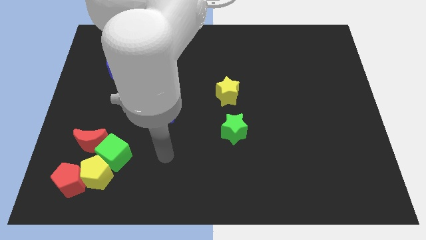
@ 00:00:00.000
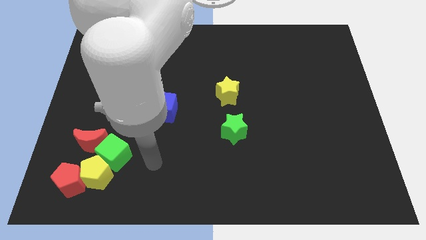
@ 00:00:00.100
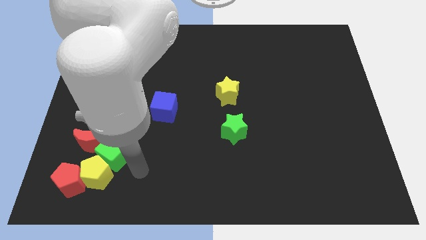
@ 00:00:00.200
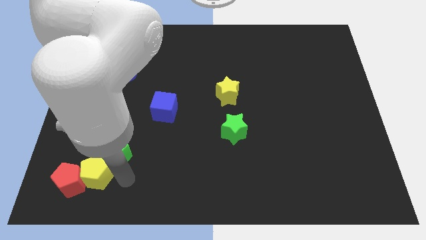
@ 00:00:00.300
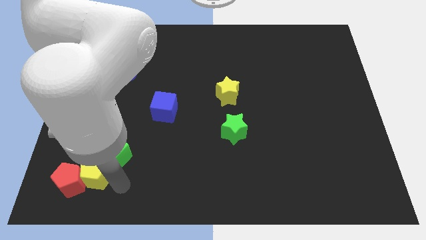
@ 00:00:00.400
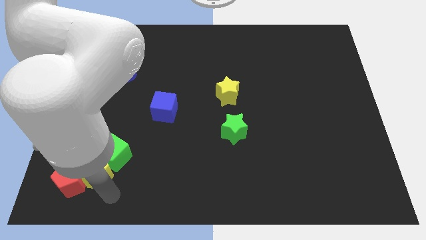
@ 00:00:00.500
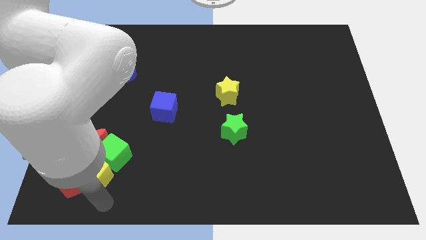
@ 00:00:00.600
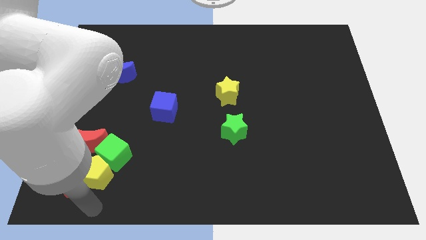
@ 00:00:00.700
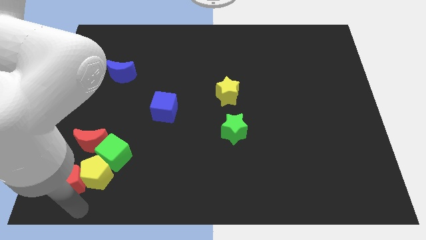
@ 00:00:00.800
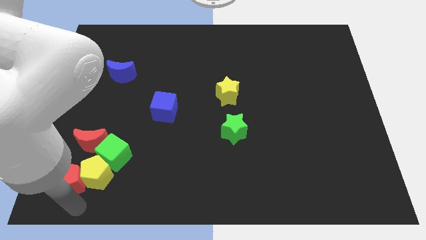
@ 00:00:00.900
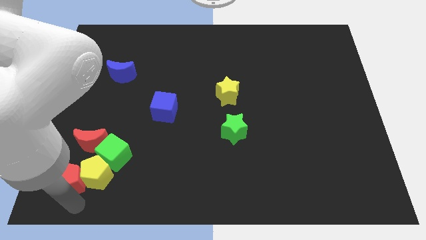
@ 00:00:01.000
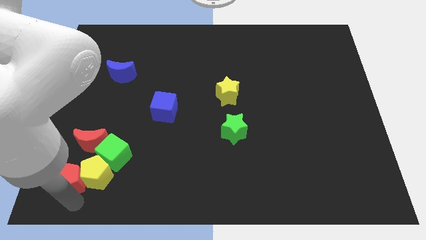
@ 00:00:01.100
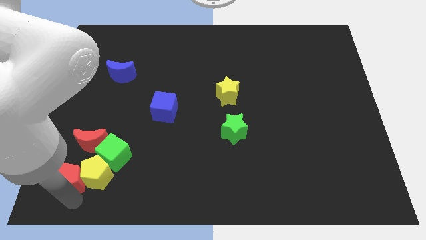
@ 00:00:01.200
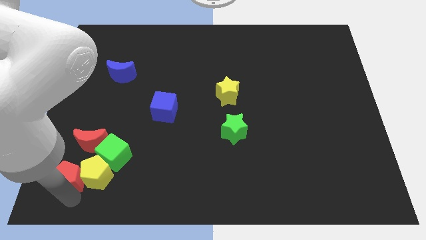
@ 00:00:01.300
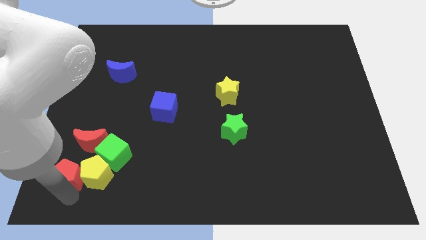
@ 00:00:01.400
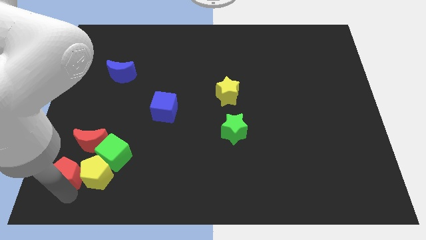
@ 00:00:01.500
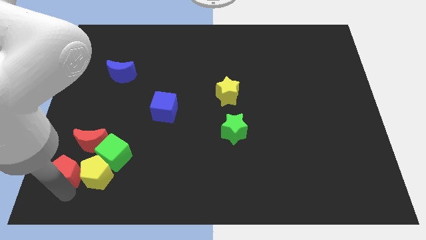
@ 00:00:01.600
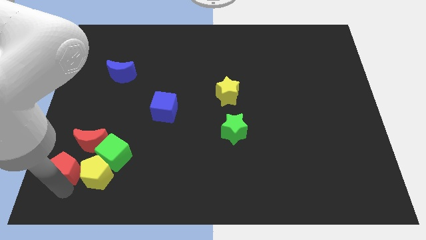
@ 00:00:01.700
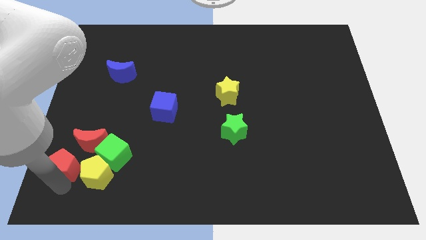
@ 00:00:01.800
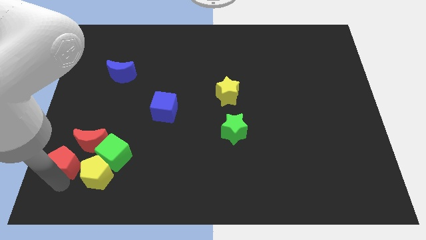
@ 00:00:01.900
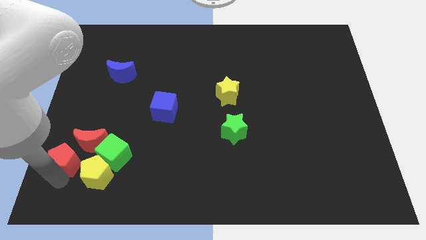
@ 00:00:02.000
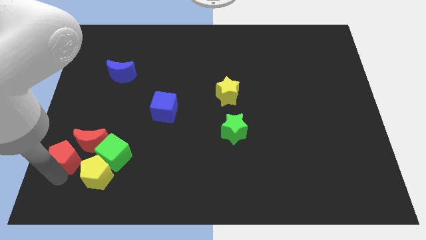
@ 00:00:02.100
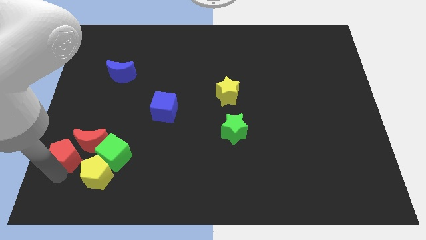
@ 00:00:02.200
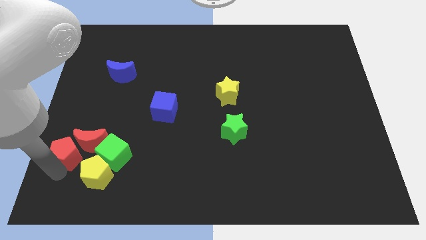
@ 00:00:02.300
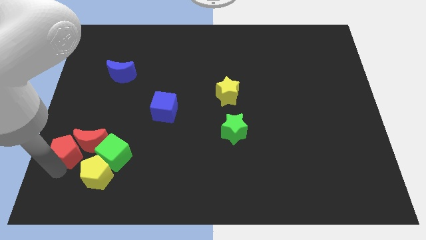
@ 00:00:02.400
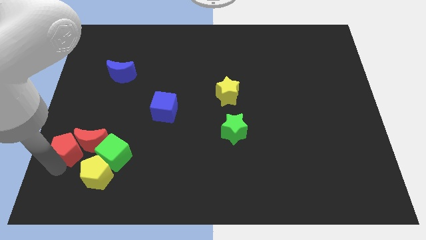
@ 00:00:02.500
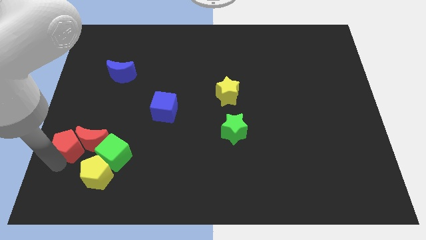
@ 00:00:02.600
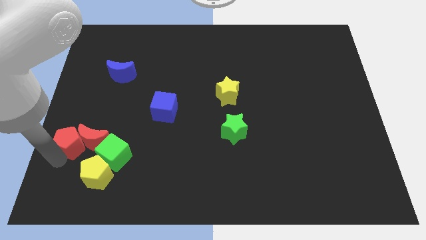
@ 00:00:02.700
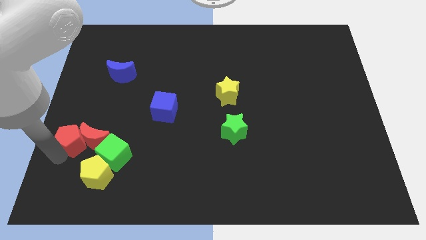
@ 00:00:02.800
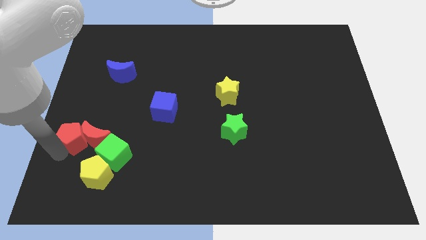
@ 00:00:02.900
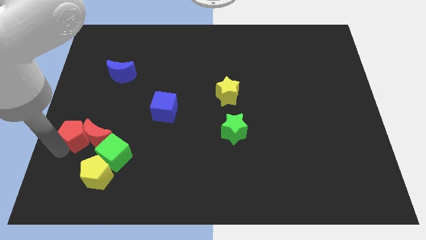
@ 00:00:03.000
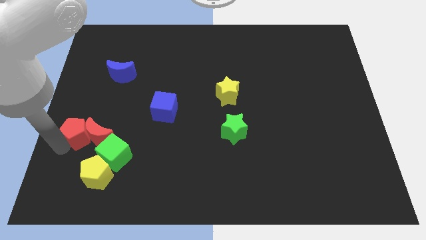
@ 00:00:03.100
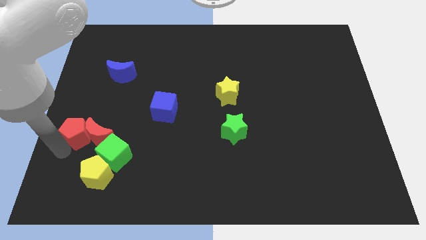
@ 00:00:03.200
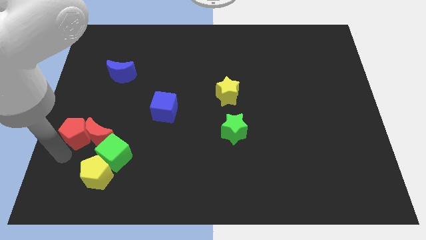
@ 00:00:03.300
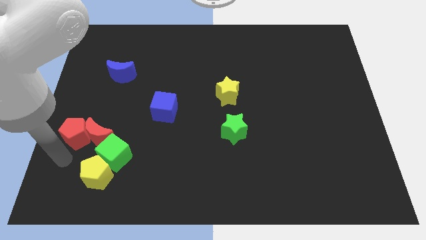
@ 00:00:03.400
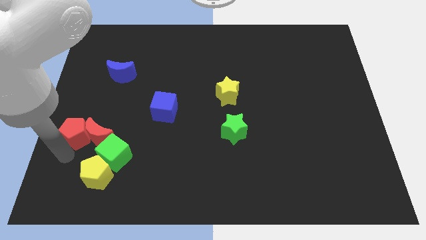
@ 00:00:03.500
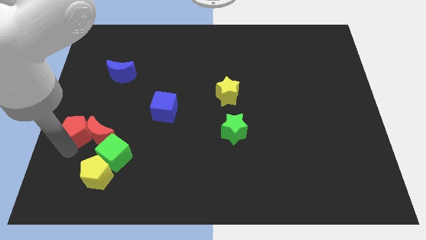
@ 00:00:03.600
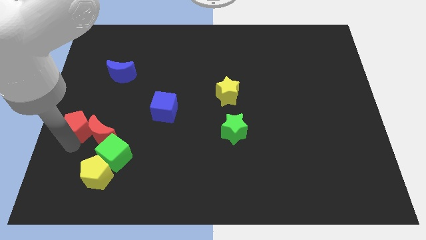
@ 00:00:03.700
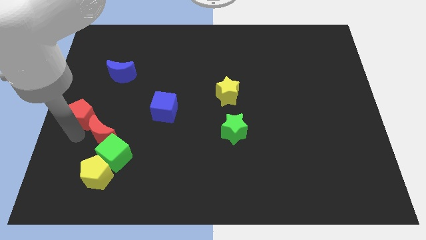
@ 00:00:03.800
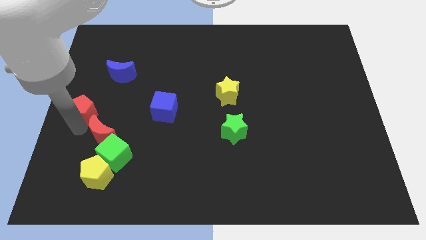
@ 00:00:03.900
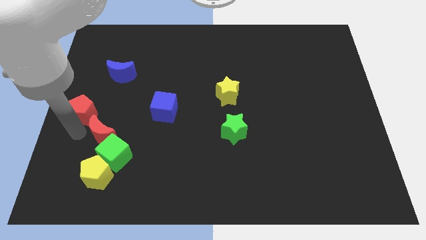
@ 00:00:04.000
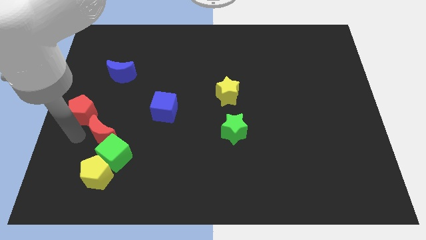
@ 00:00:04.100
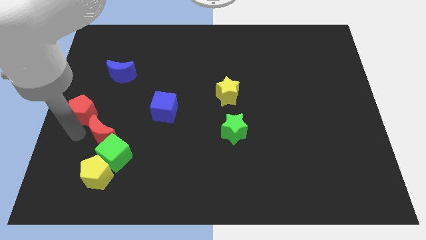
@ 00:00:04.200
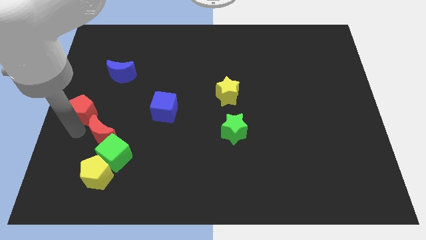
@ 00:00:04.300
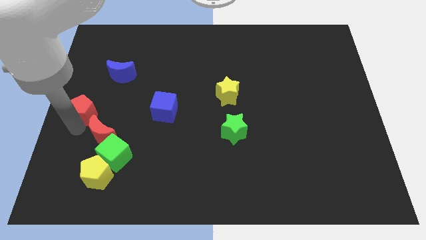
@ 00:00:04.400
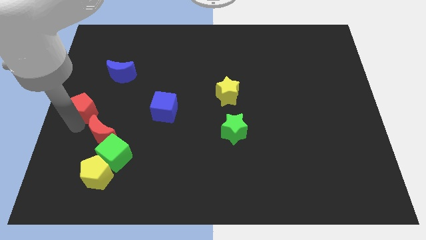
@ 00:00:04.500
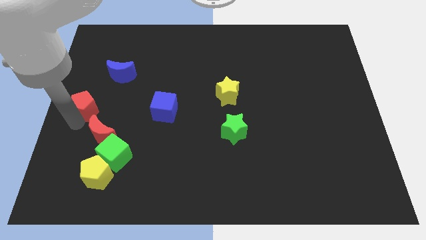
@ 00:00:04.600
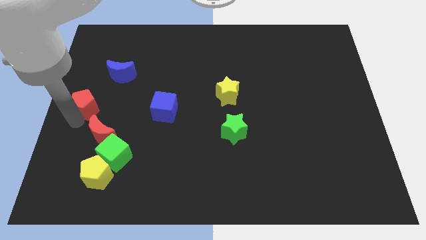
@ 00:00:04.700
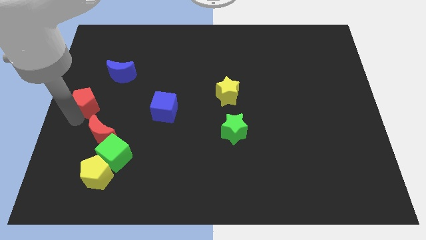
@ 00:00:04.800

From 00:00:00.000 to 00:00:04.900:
slide the red pentagon up

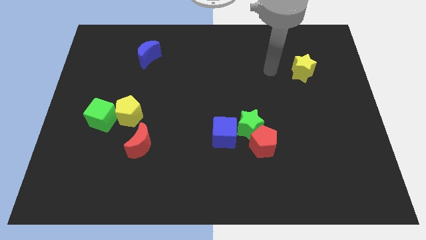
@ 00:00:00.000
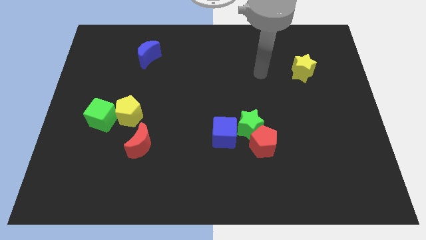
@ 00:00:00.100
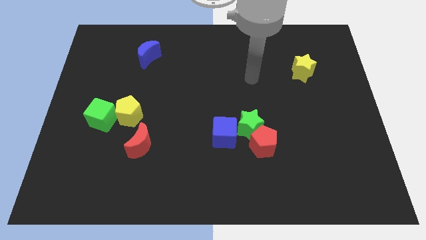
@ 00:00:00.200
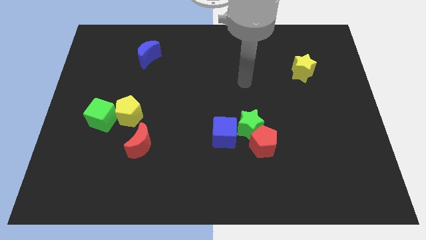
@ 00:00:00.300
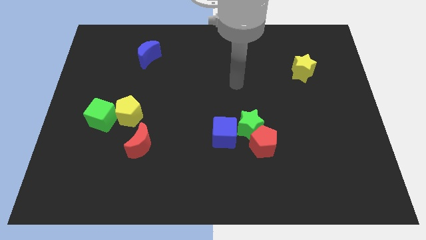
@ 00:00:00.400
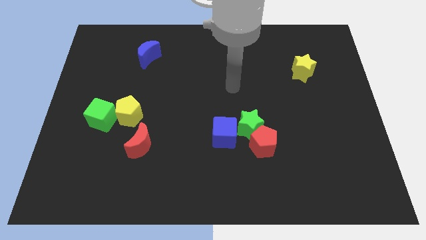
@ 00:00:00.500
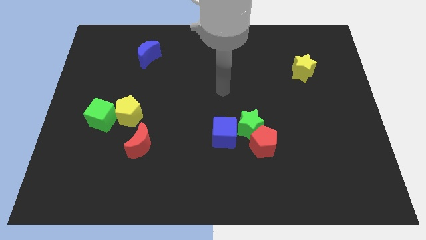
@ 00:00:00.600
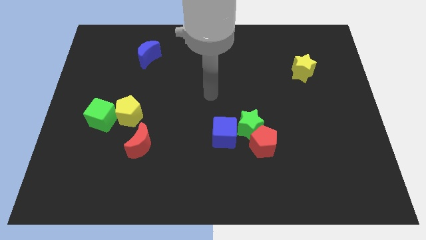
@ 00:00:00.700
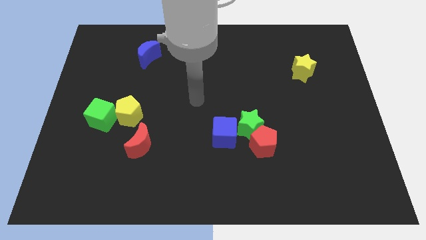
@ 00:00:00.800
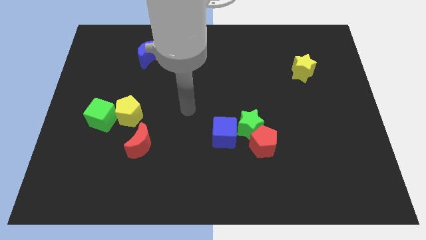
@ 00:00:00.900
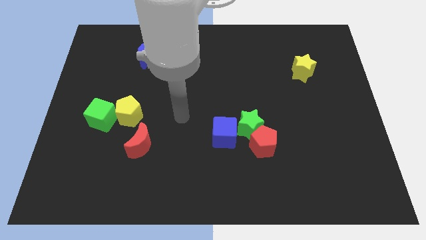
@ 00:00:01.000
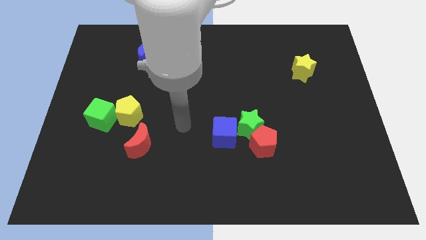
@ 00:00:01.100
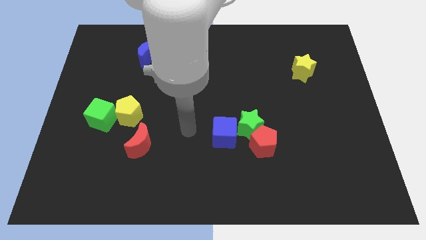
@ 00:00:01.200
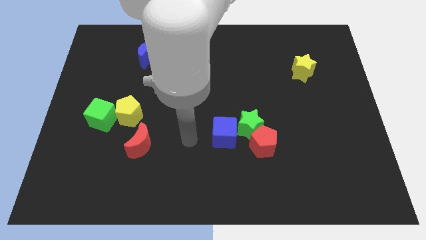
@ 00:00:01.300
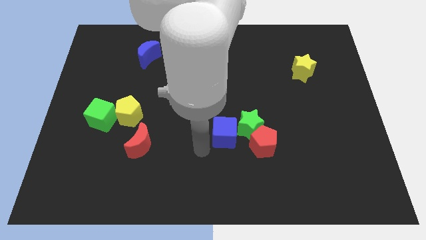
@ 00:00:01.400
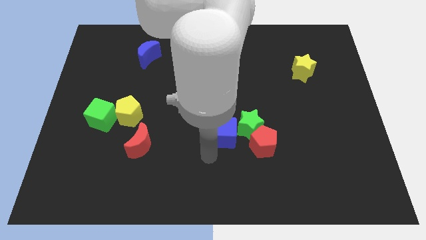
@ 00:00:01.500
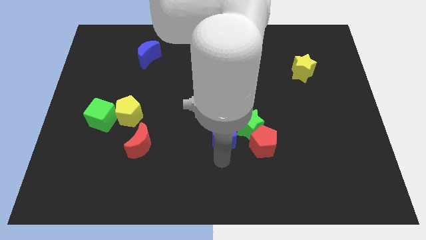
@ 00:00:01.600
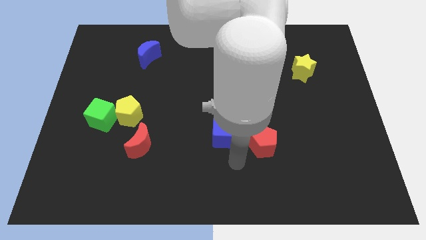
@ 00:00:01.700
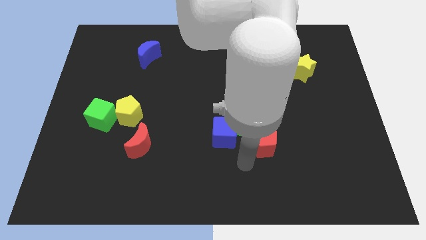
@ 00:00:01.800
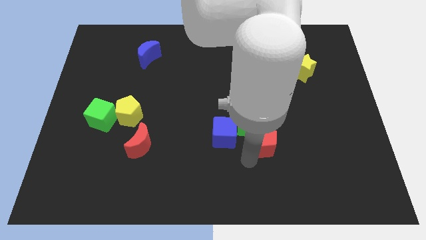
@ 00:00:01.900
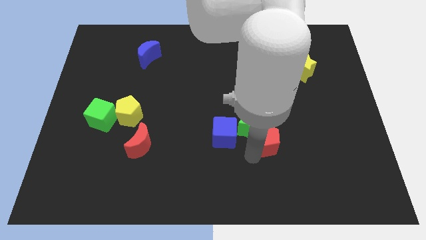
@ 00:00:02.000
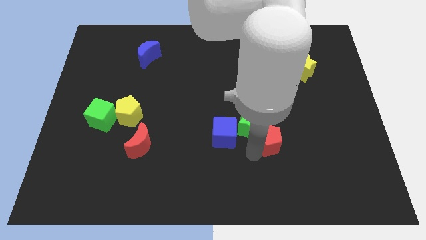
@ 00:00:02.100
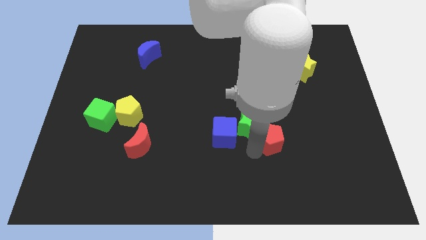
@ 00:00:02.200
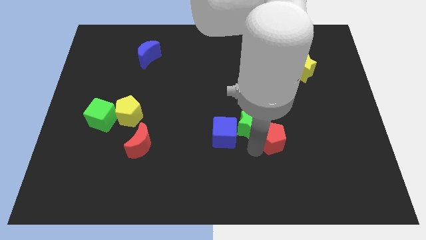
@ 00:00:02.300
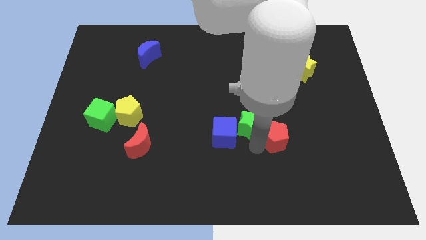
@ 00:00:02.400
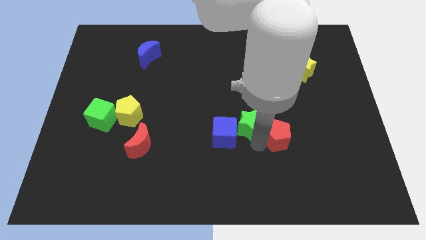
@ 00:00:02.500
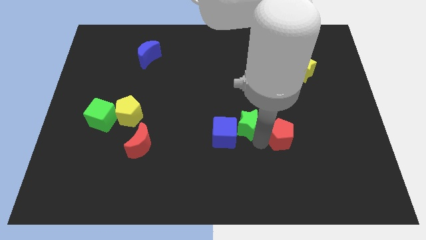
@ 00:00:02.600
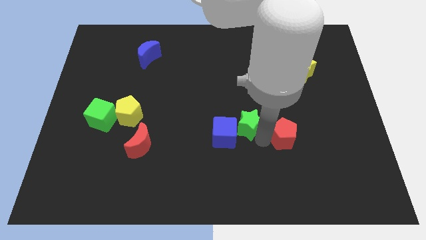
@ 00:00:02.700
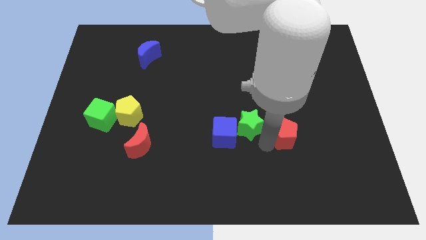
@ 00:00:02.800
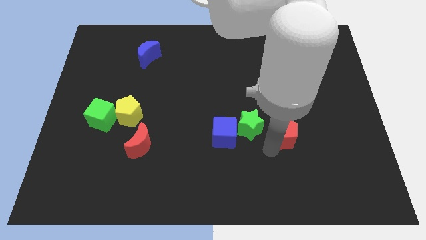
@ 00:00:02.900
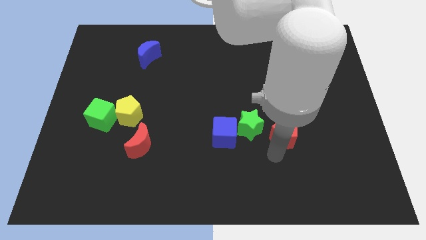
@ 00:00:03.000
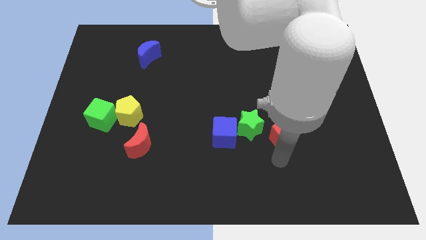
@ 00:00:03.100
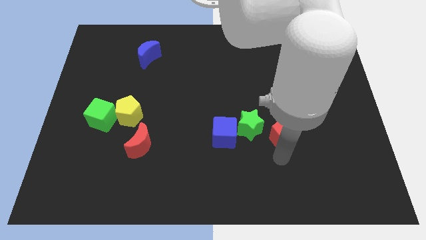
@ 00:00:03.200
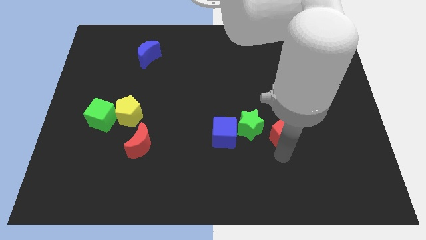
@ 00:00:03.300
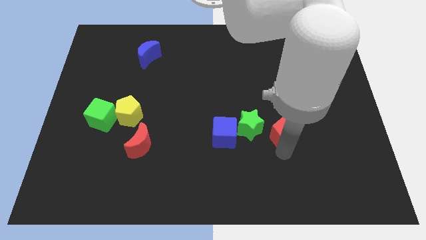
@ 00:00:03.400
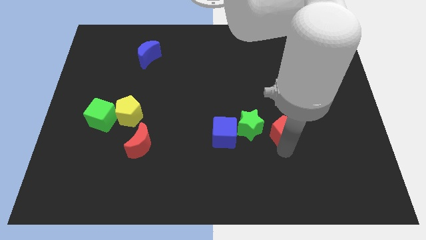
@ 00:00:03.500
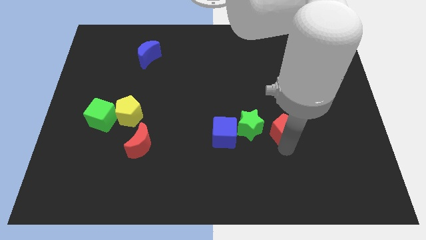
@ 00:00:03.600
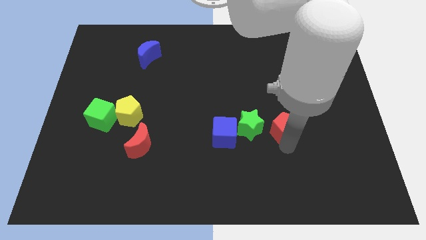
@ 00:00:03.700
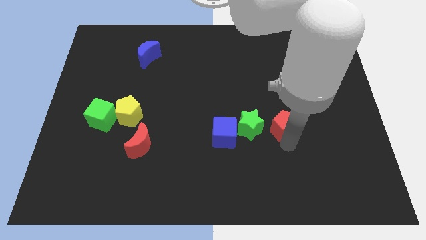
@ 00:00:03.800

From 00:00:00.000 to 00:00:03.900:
move the red pentagon up and then right somewhat
